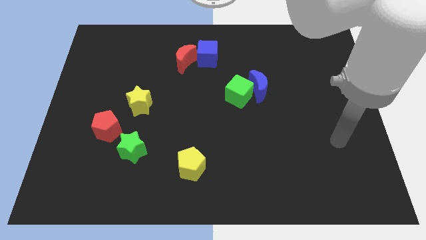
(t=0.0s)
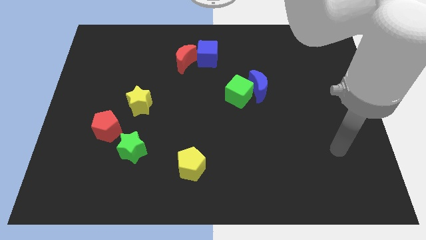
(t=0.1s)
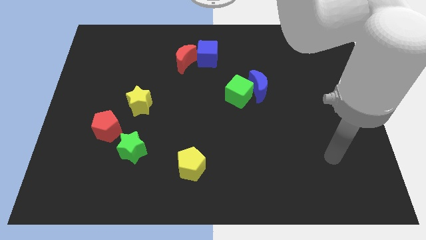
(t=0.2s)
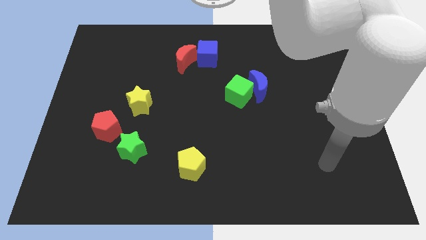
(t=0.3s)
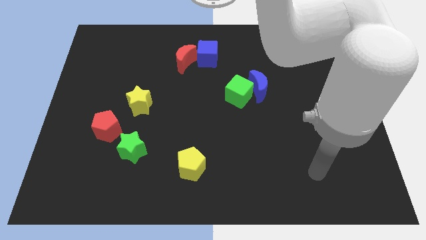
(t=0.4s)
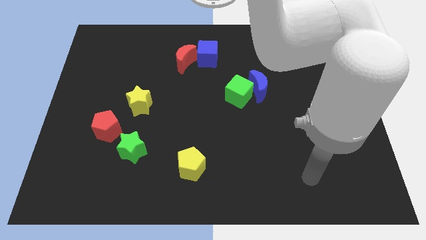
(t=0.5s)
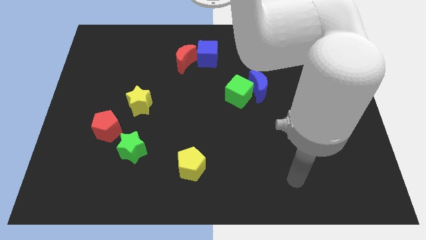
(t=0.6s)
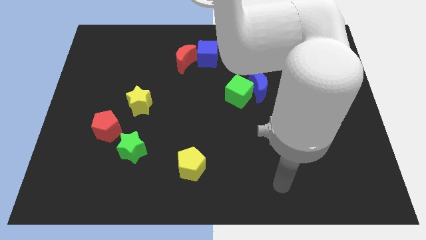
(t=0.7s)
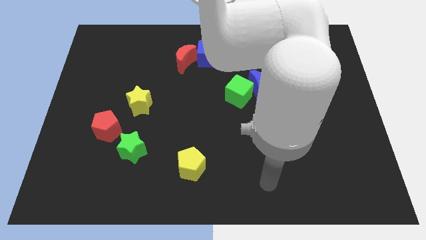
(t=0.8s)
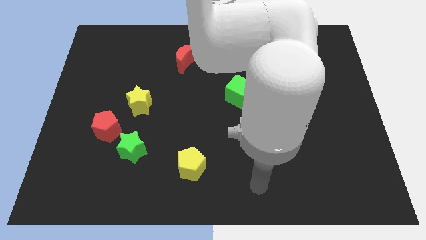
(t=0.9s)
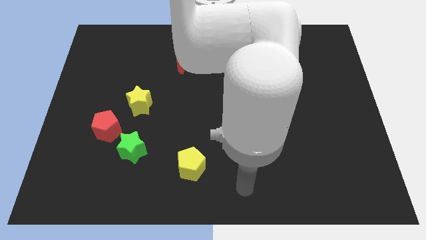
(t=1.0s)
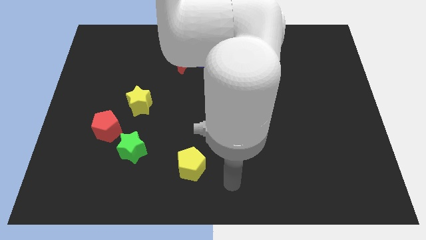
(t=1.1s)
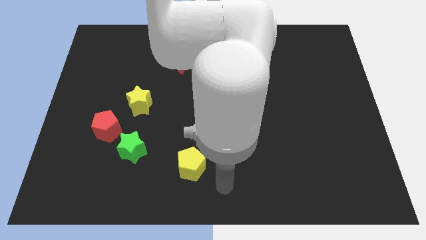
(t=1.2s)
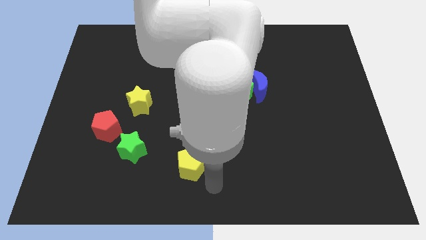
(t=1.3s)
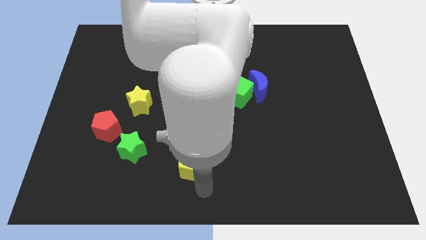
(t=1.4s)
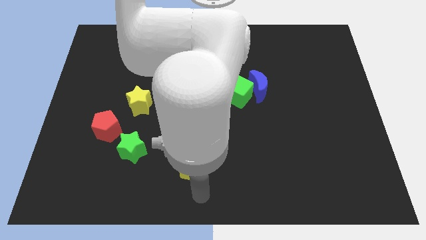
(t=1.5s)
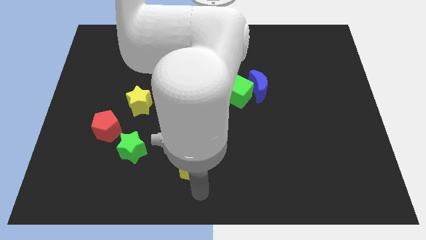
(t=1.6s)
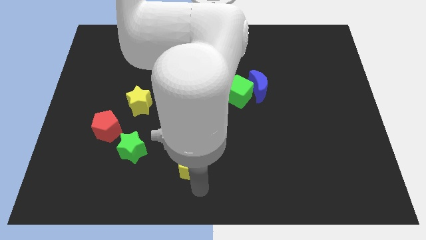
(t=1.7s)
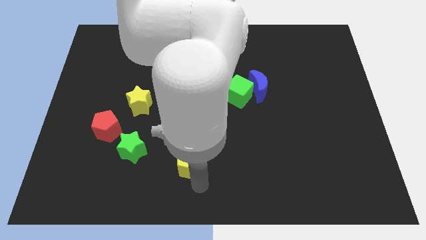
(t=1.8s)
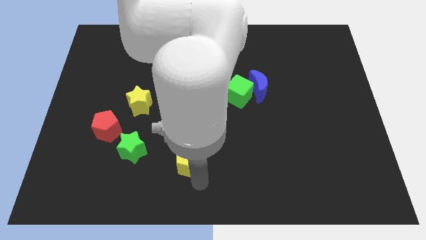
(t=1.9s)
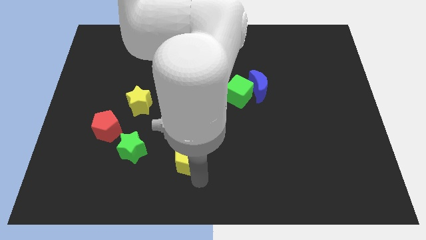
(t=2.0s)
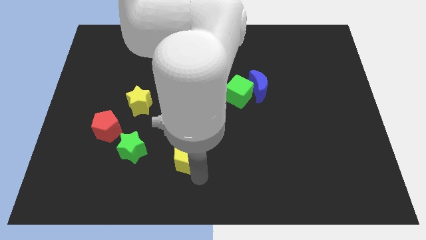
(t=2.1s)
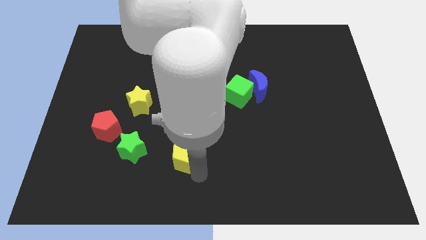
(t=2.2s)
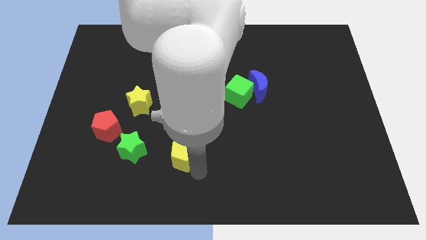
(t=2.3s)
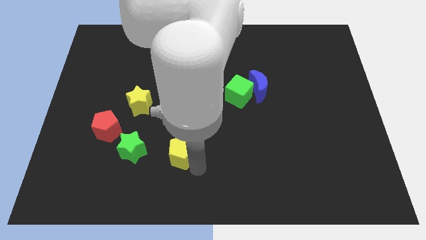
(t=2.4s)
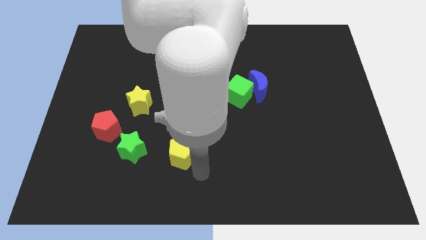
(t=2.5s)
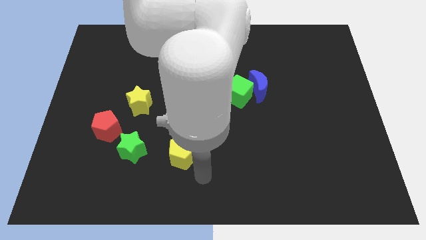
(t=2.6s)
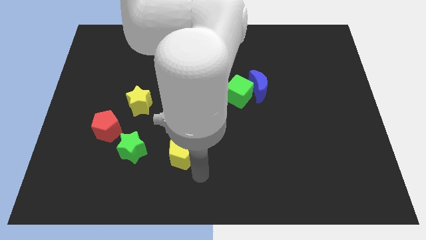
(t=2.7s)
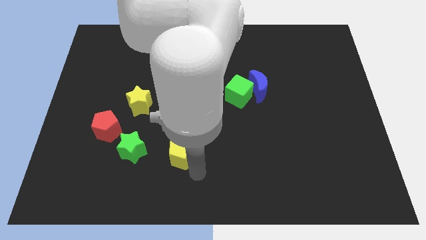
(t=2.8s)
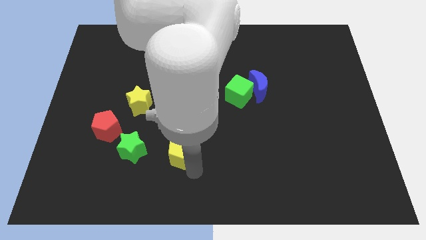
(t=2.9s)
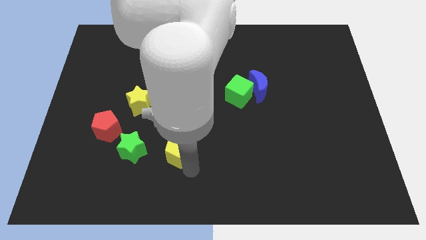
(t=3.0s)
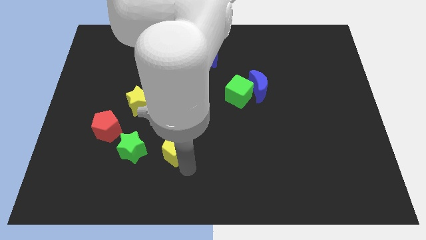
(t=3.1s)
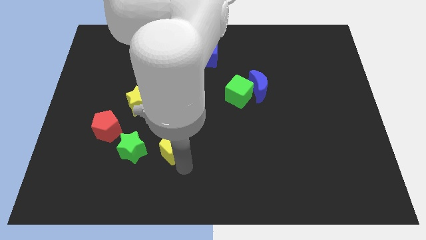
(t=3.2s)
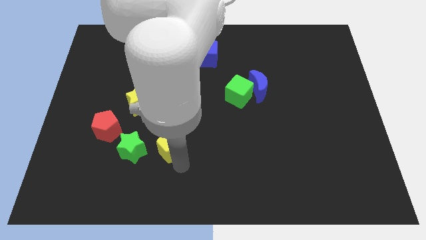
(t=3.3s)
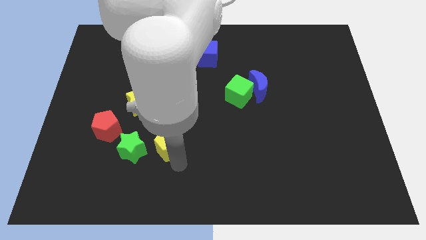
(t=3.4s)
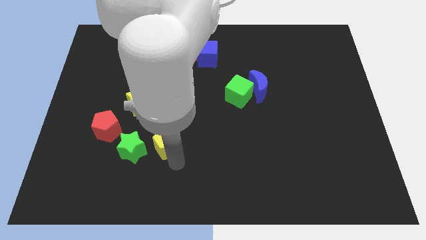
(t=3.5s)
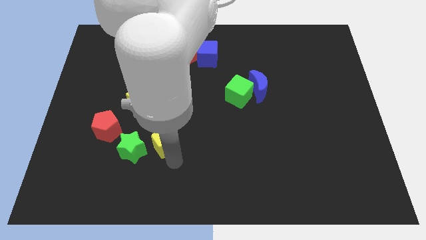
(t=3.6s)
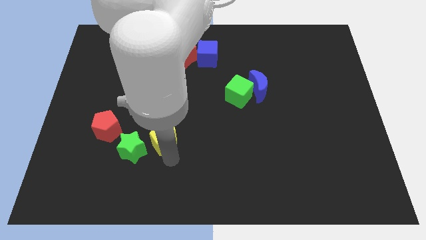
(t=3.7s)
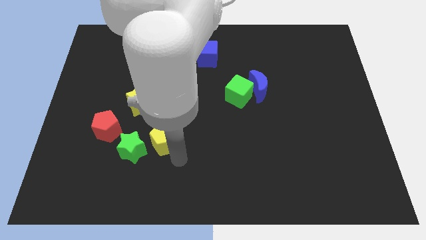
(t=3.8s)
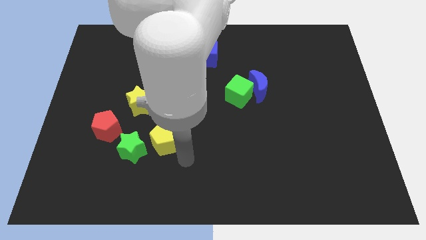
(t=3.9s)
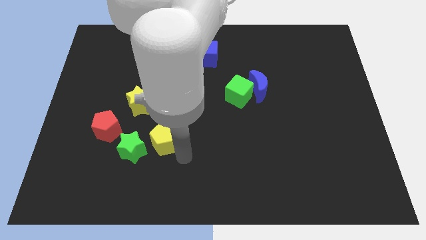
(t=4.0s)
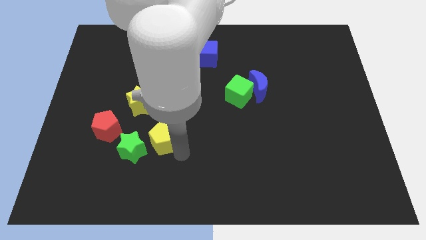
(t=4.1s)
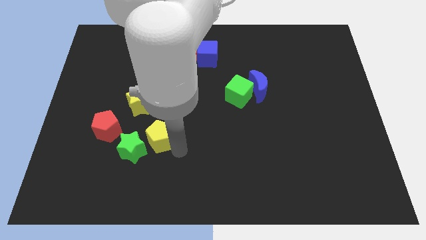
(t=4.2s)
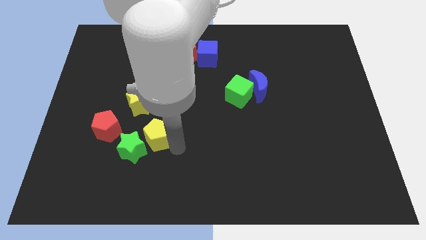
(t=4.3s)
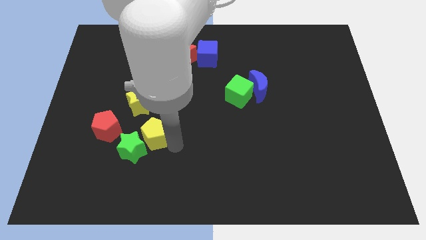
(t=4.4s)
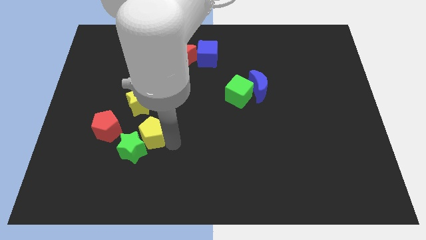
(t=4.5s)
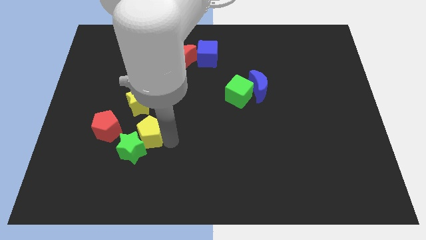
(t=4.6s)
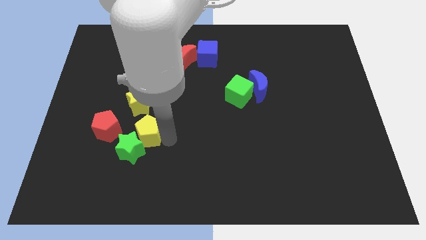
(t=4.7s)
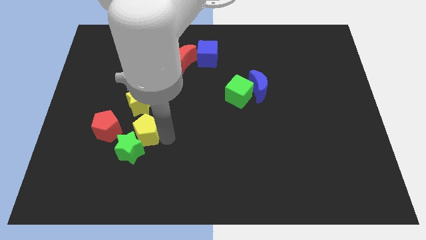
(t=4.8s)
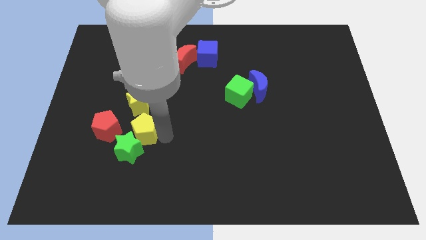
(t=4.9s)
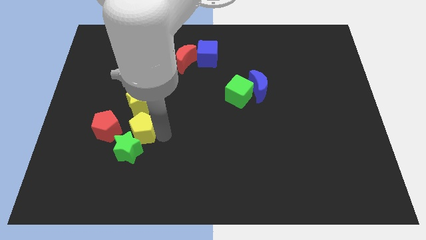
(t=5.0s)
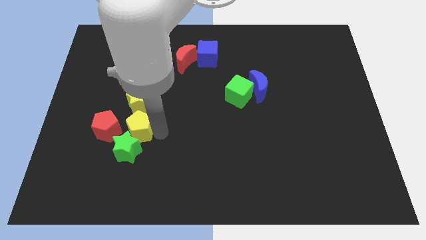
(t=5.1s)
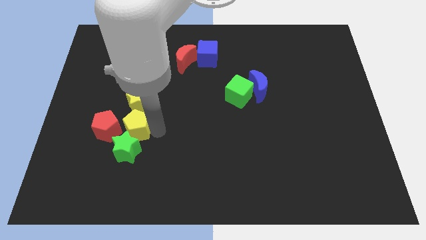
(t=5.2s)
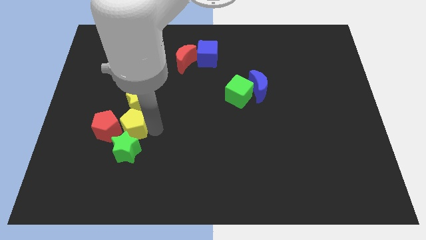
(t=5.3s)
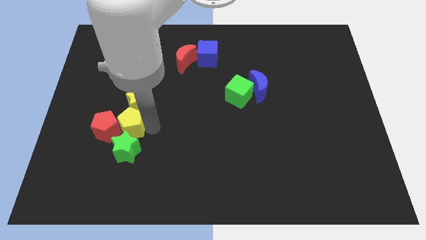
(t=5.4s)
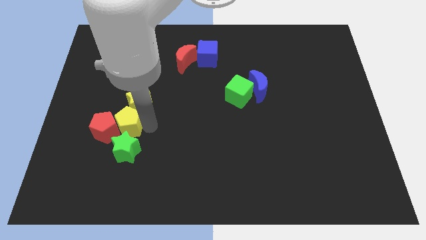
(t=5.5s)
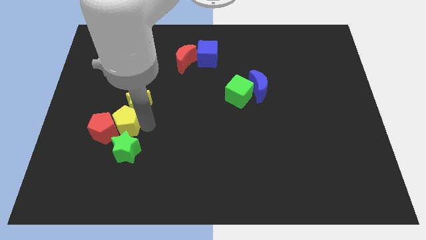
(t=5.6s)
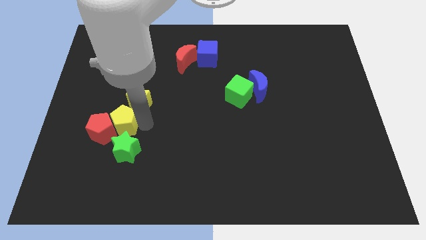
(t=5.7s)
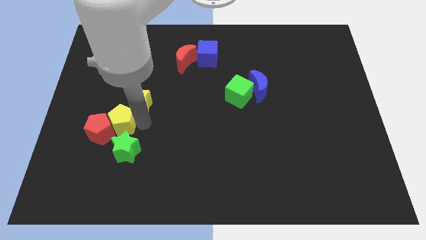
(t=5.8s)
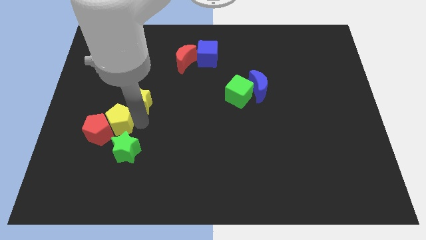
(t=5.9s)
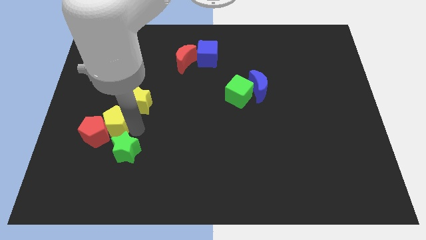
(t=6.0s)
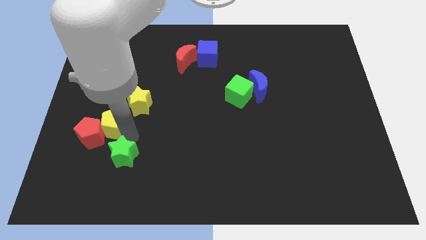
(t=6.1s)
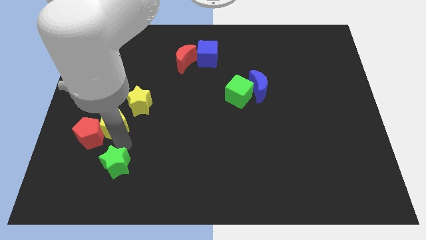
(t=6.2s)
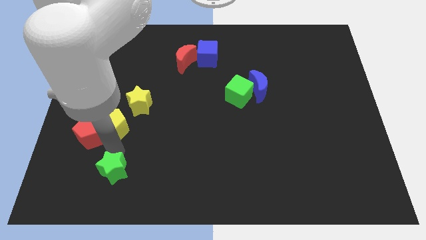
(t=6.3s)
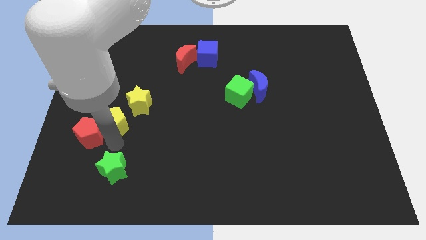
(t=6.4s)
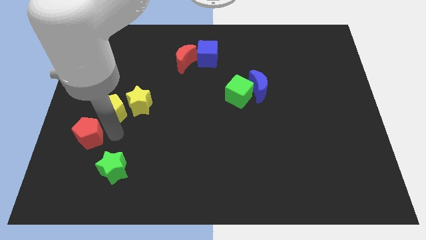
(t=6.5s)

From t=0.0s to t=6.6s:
slide the yellow pentagon up and to the left diagonally

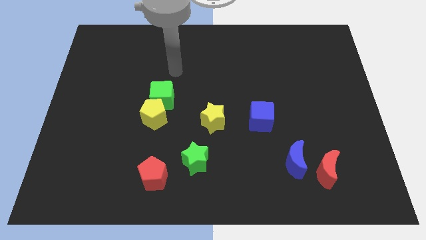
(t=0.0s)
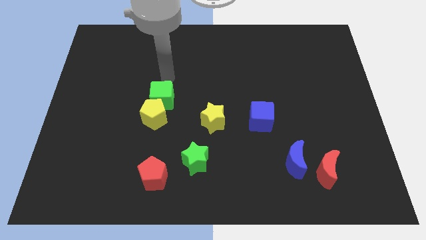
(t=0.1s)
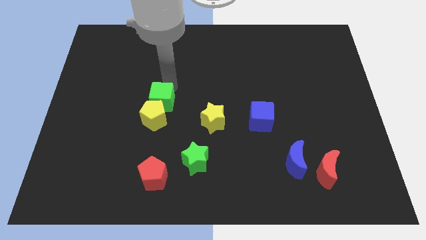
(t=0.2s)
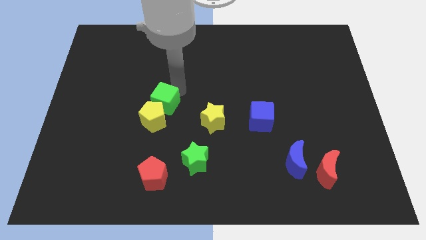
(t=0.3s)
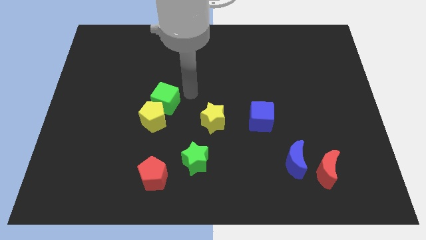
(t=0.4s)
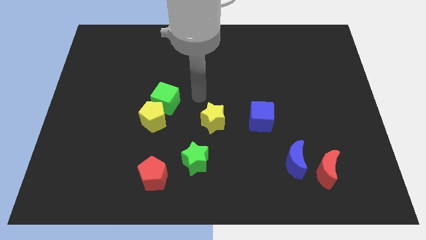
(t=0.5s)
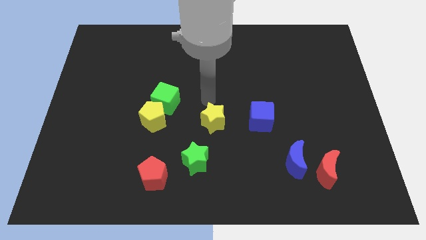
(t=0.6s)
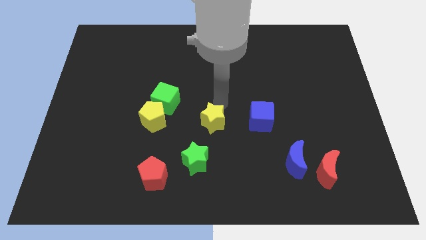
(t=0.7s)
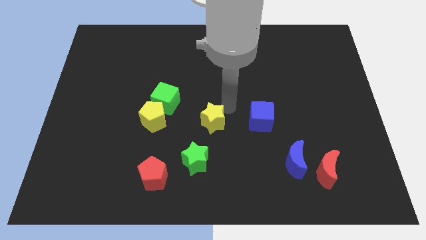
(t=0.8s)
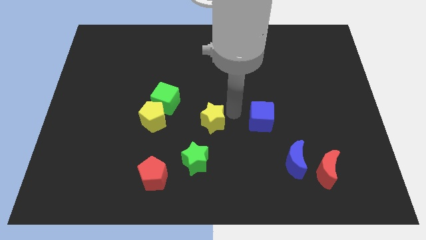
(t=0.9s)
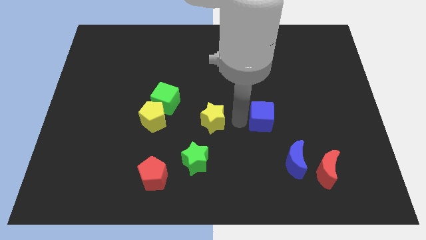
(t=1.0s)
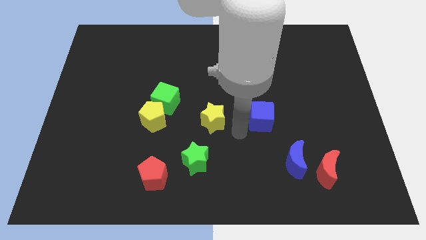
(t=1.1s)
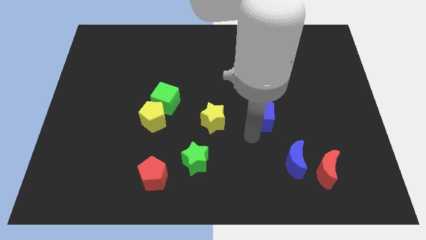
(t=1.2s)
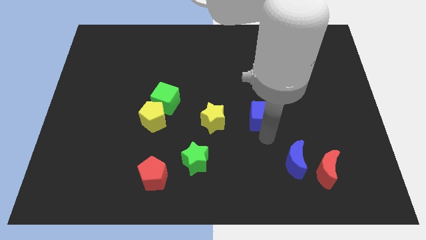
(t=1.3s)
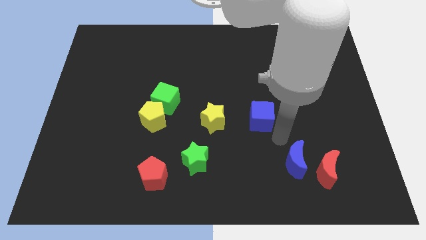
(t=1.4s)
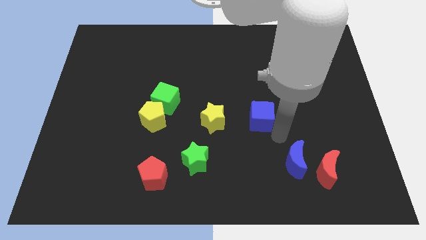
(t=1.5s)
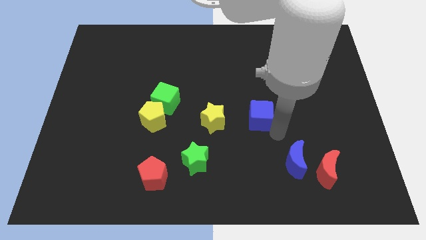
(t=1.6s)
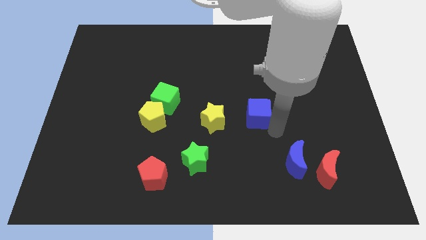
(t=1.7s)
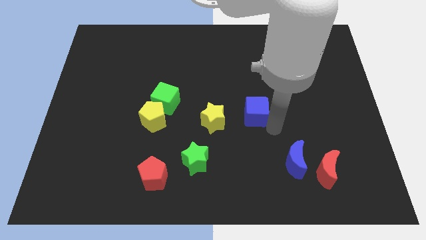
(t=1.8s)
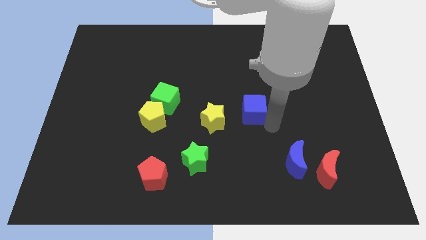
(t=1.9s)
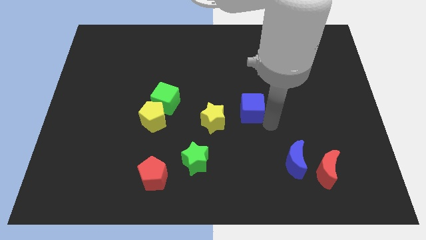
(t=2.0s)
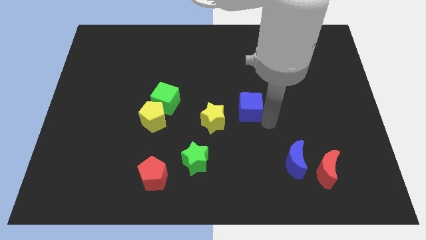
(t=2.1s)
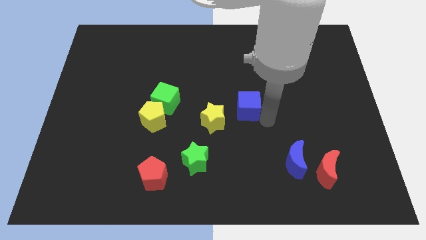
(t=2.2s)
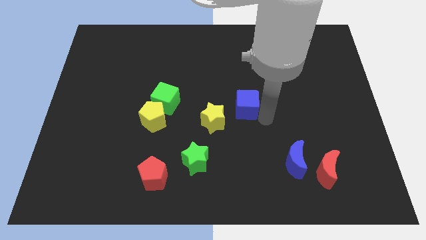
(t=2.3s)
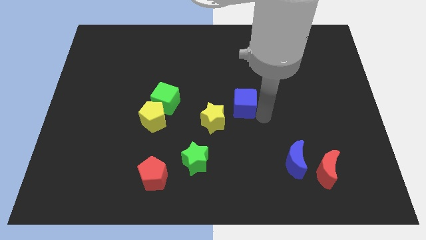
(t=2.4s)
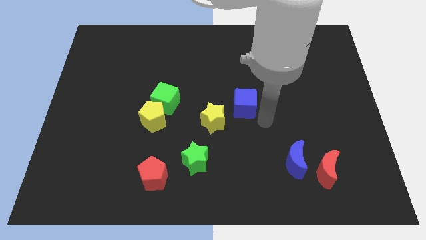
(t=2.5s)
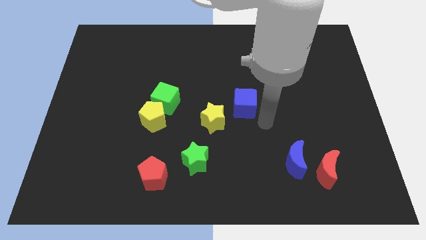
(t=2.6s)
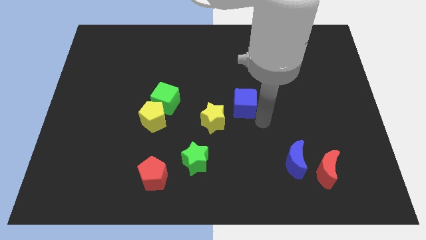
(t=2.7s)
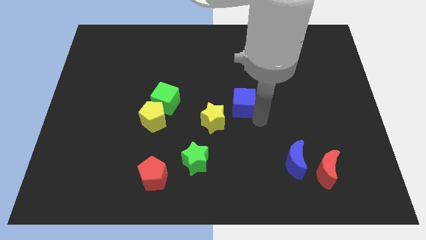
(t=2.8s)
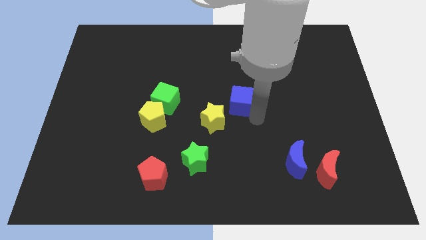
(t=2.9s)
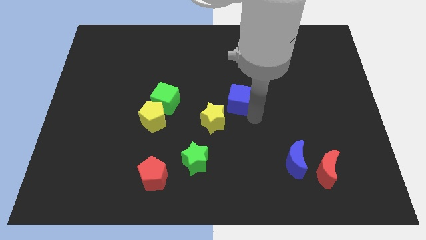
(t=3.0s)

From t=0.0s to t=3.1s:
push the blue cube diagonally upwards and left a little bit
